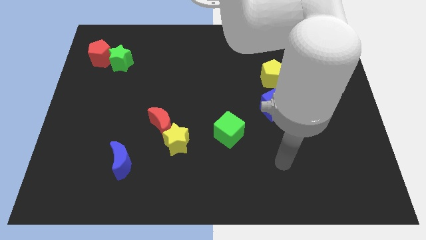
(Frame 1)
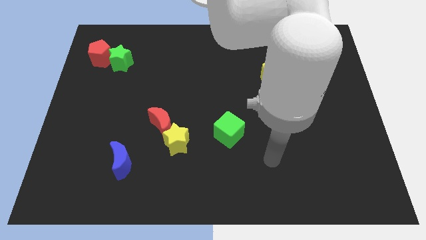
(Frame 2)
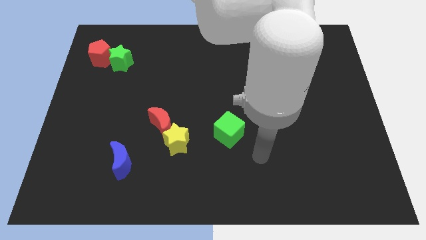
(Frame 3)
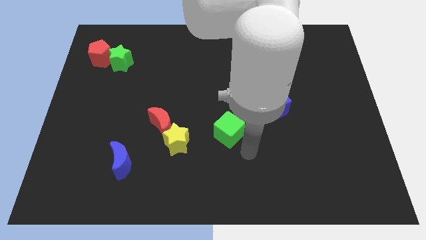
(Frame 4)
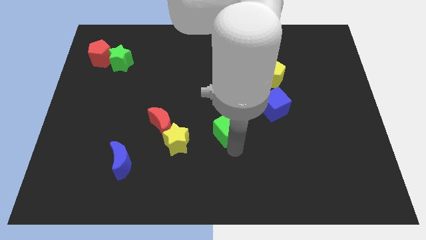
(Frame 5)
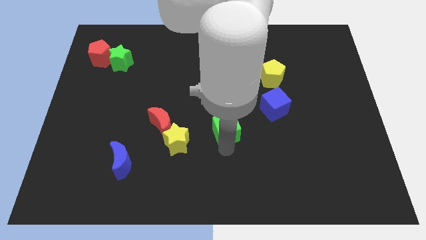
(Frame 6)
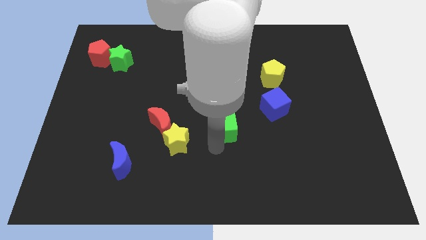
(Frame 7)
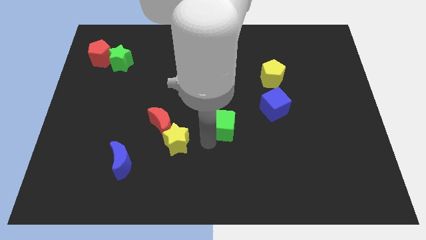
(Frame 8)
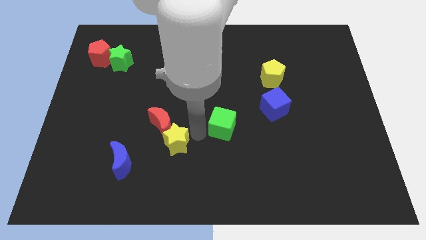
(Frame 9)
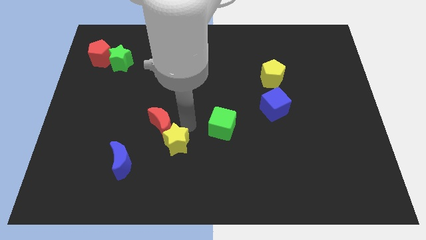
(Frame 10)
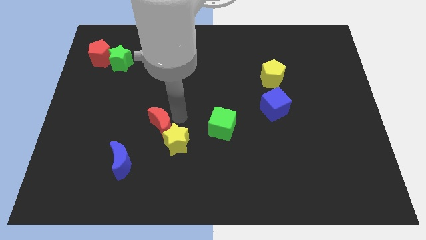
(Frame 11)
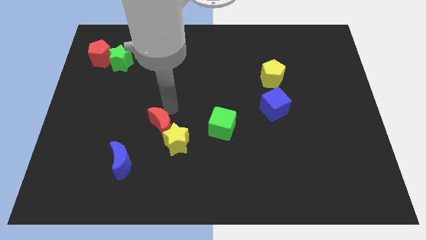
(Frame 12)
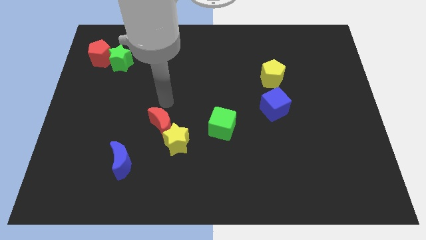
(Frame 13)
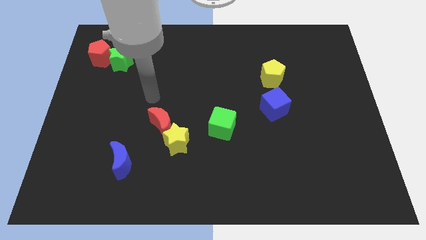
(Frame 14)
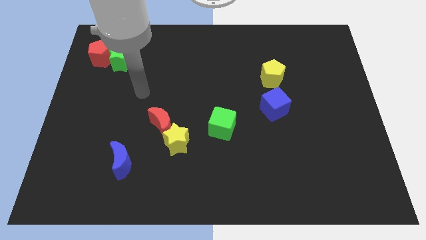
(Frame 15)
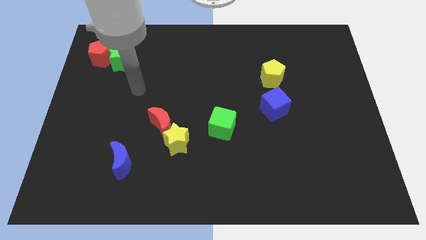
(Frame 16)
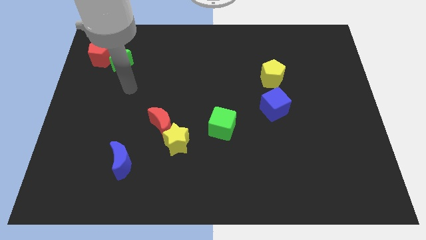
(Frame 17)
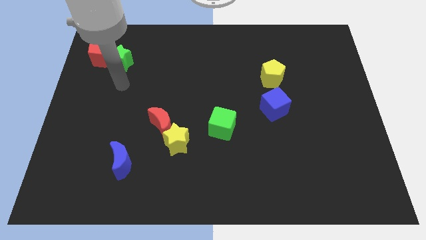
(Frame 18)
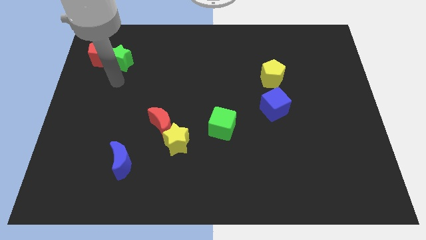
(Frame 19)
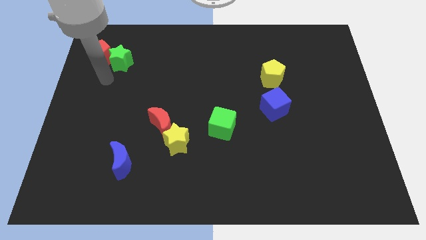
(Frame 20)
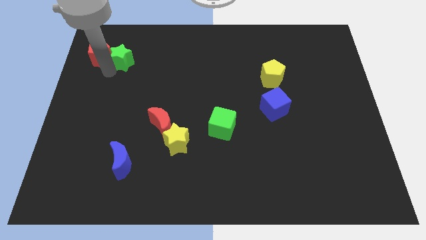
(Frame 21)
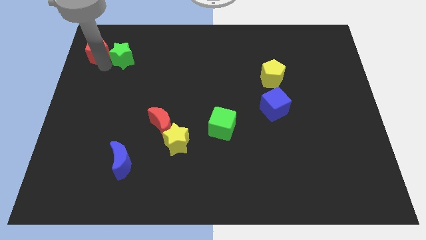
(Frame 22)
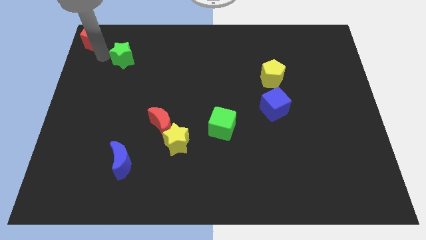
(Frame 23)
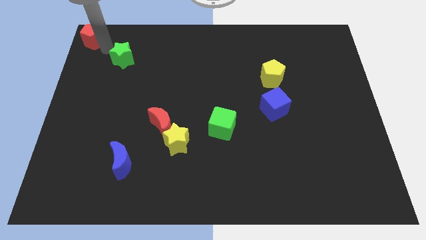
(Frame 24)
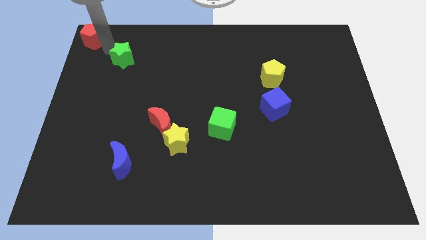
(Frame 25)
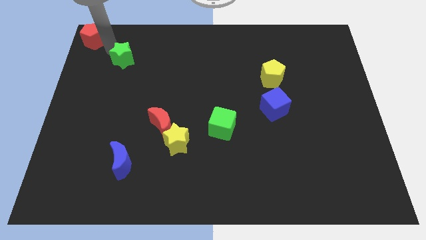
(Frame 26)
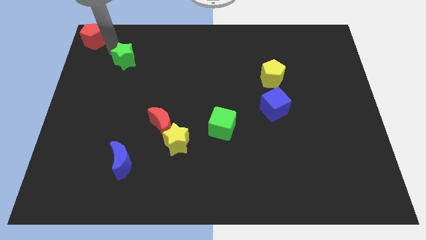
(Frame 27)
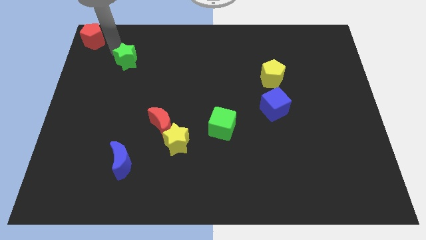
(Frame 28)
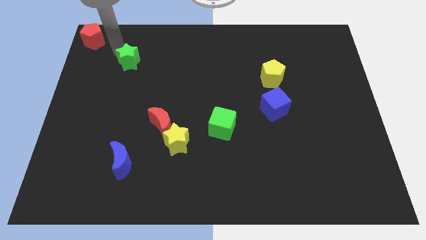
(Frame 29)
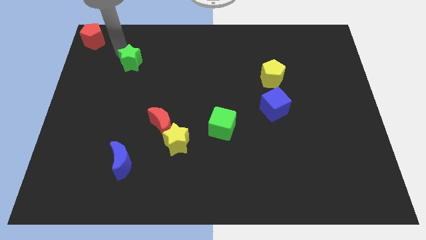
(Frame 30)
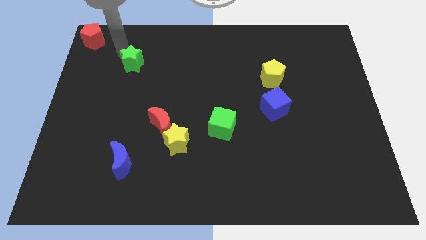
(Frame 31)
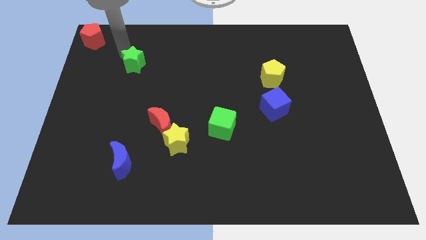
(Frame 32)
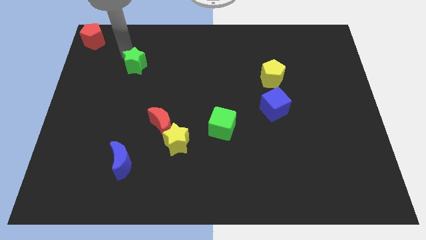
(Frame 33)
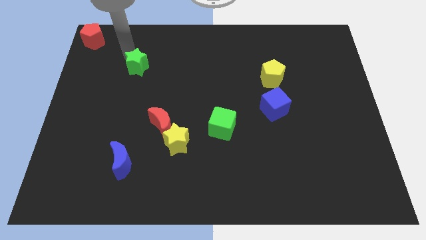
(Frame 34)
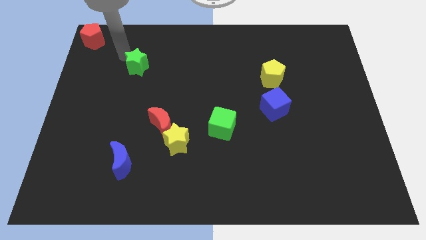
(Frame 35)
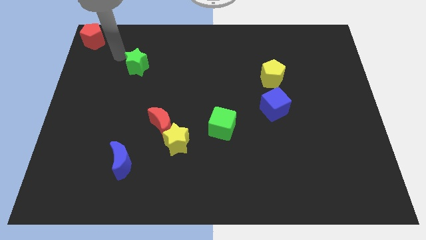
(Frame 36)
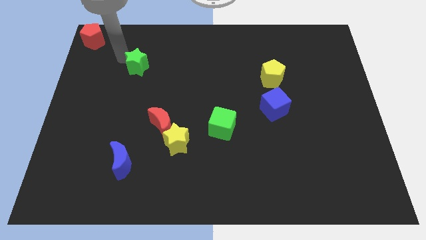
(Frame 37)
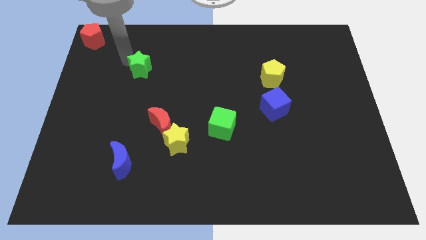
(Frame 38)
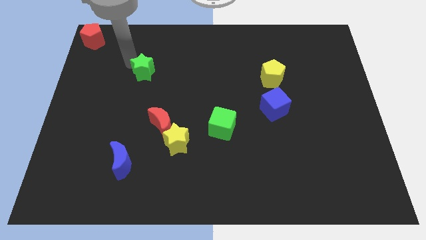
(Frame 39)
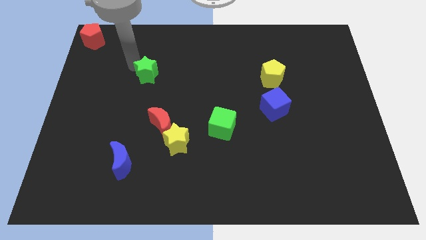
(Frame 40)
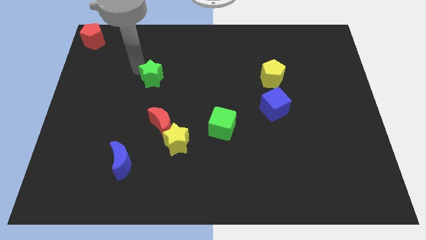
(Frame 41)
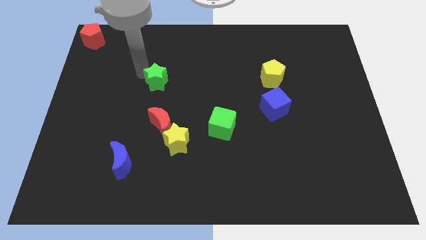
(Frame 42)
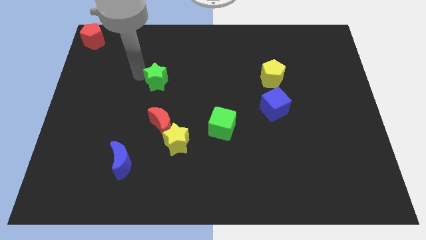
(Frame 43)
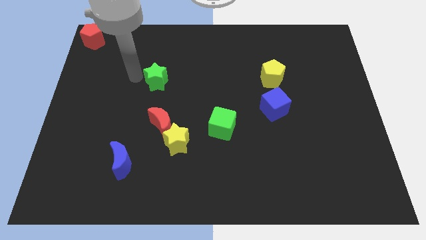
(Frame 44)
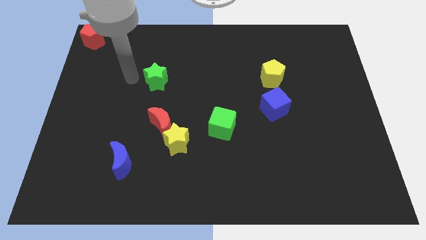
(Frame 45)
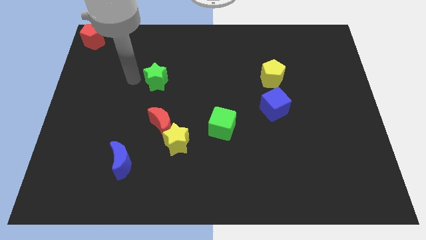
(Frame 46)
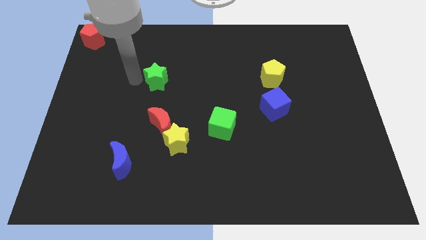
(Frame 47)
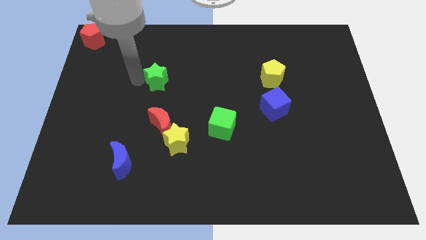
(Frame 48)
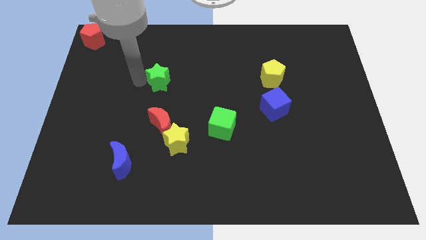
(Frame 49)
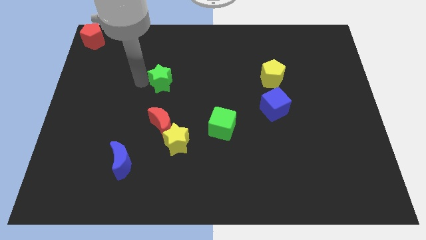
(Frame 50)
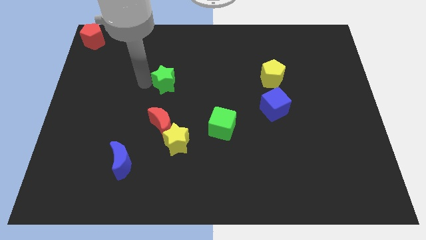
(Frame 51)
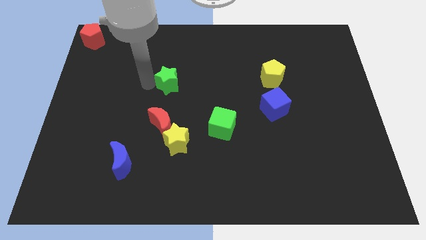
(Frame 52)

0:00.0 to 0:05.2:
put the green star to the middle of the board

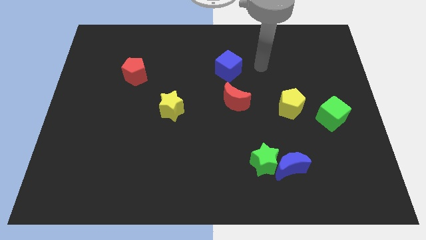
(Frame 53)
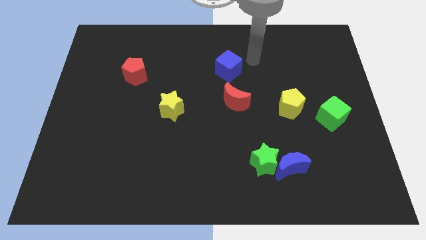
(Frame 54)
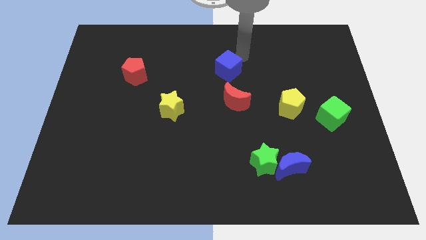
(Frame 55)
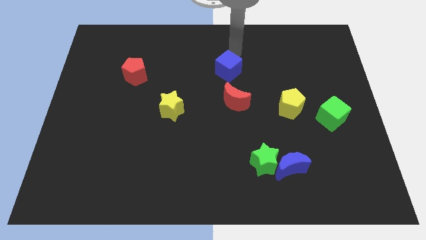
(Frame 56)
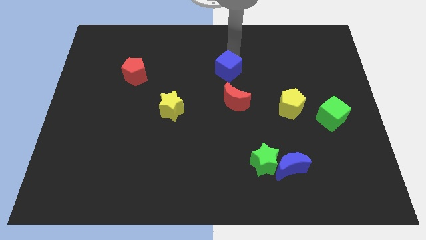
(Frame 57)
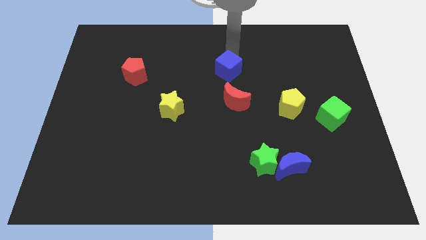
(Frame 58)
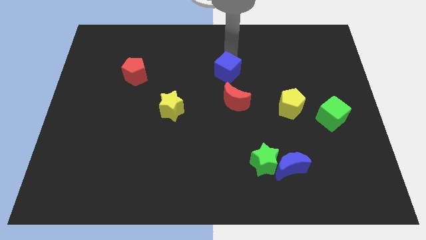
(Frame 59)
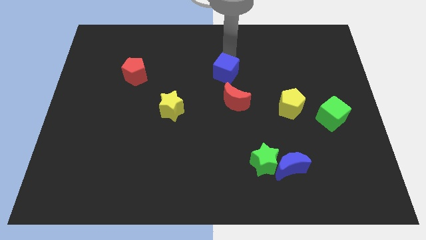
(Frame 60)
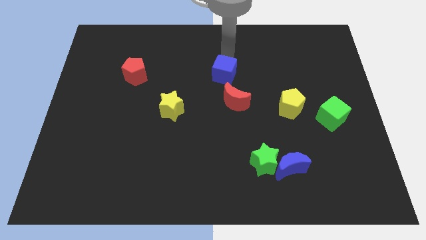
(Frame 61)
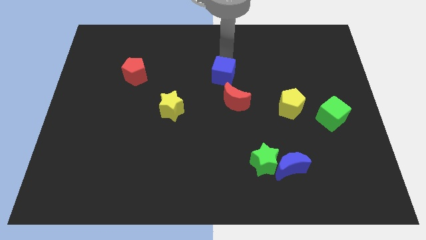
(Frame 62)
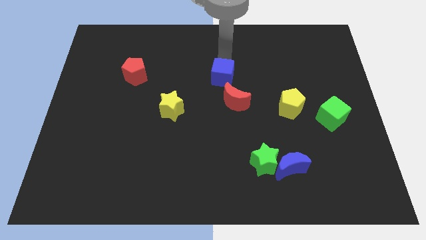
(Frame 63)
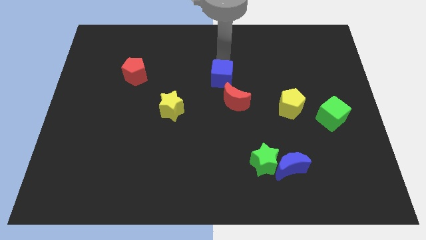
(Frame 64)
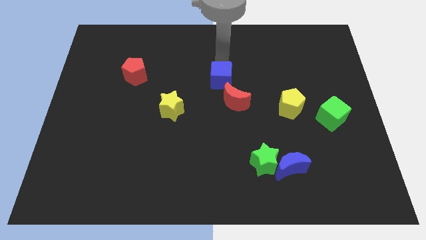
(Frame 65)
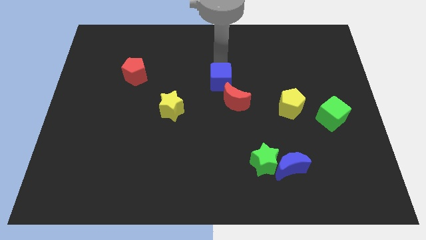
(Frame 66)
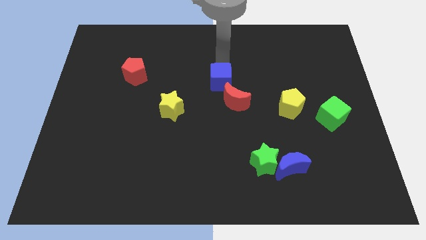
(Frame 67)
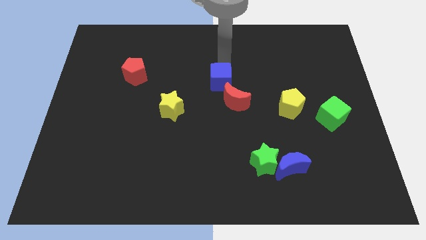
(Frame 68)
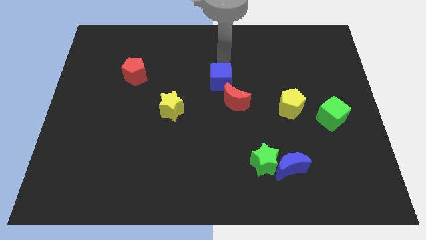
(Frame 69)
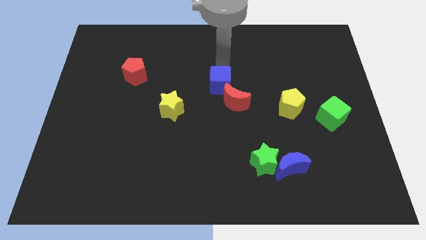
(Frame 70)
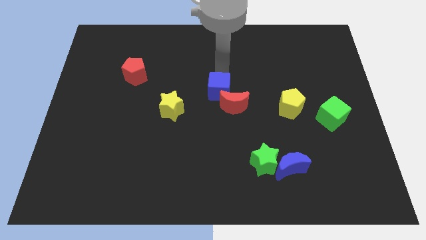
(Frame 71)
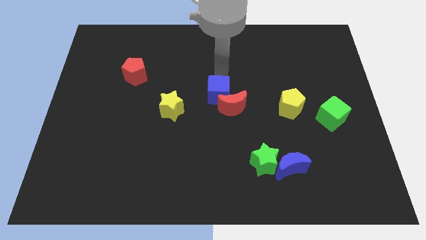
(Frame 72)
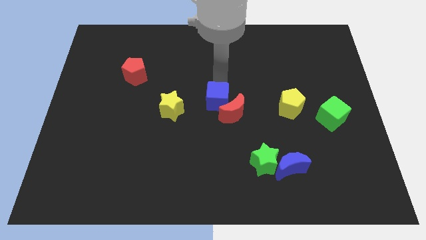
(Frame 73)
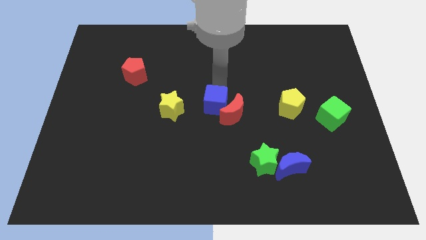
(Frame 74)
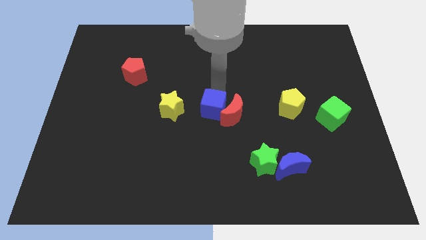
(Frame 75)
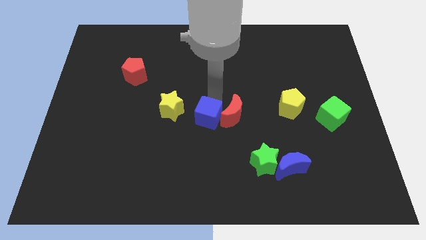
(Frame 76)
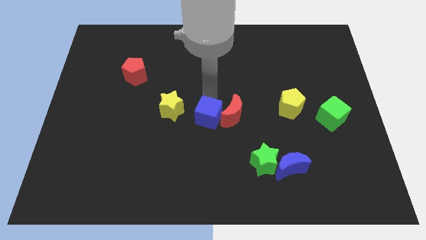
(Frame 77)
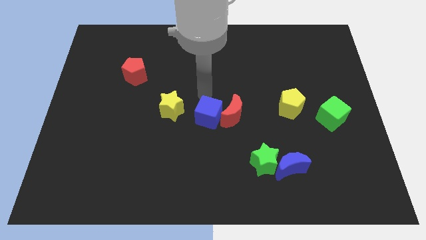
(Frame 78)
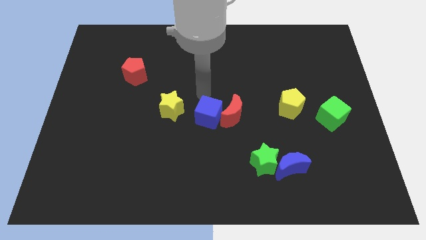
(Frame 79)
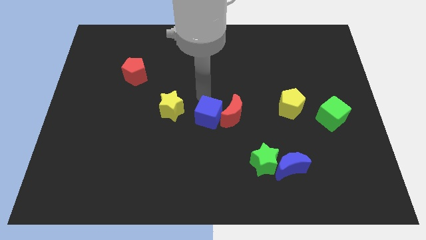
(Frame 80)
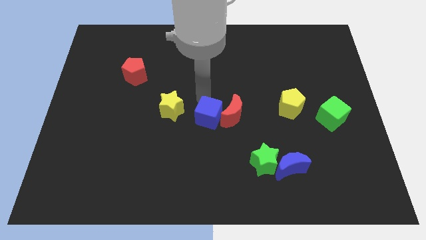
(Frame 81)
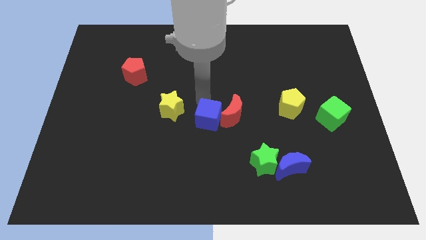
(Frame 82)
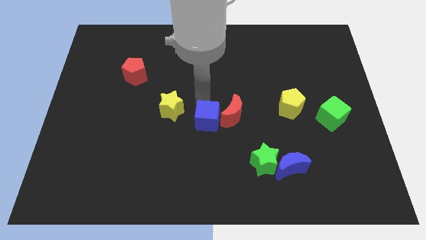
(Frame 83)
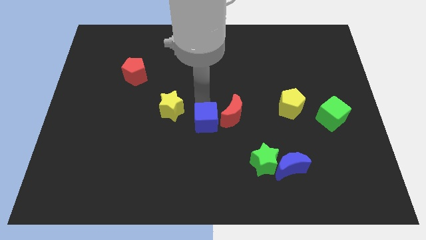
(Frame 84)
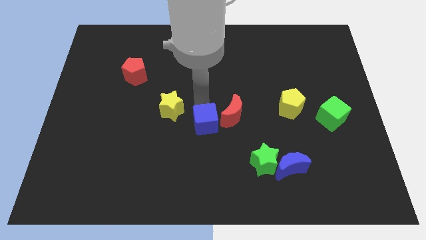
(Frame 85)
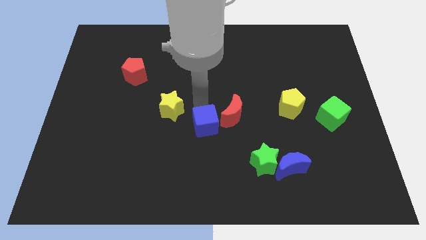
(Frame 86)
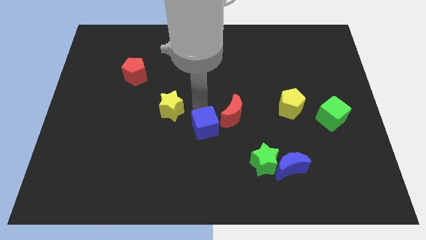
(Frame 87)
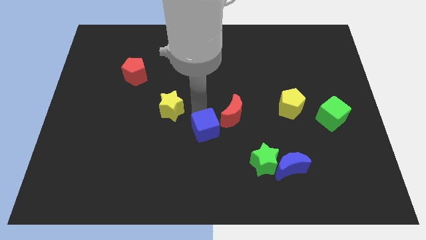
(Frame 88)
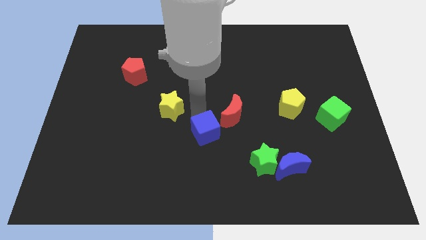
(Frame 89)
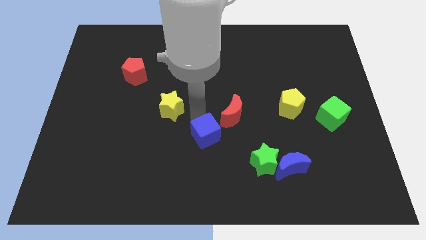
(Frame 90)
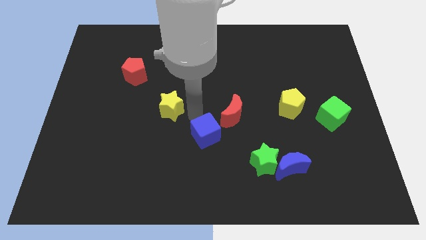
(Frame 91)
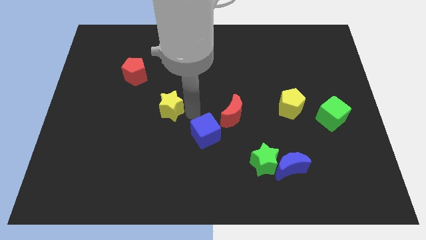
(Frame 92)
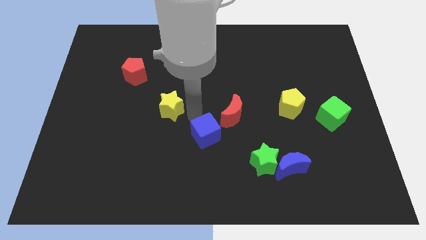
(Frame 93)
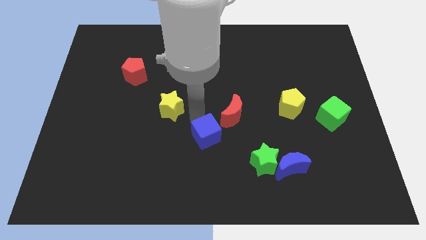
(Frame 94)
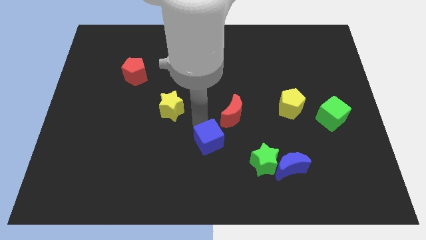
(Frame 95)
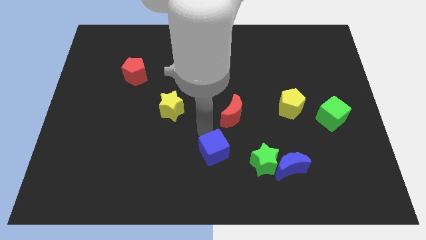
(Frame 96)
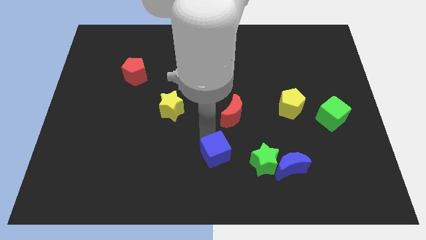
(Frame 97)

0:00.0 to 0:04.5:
slide the blue cube to the bottom
